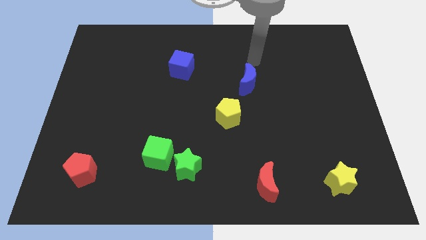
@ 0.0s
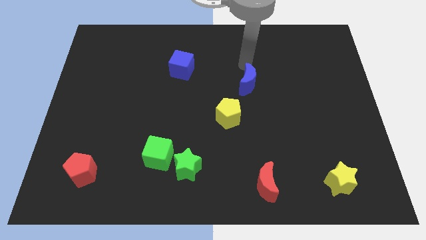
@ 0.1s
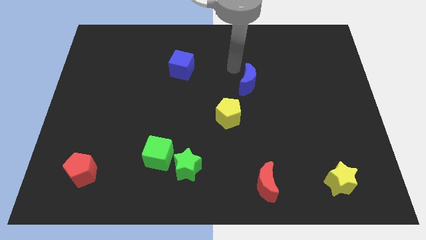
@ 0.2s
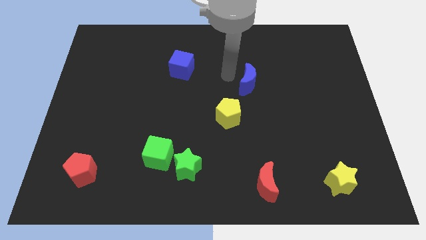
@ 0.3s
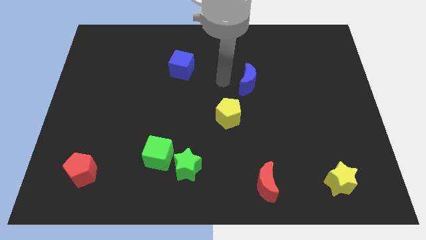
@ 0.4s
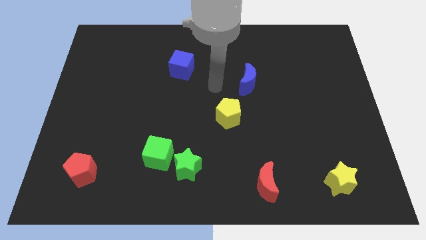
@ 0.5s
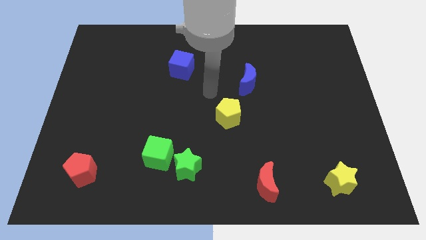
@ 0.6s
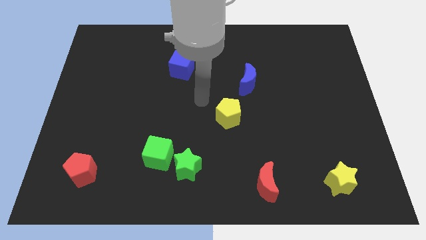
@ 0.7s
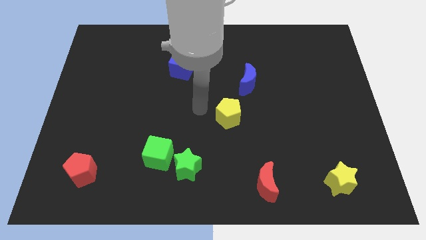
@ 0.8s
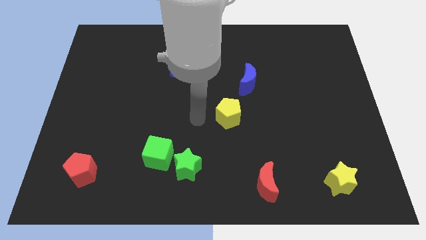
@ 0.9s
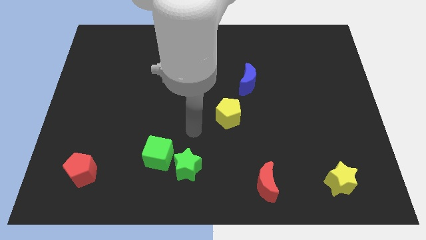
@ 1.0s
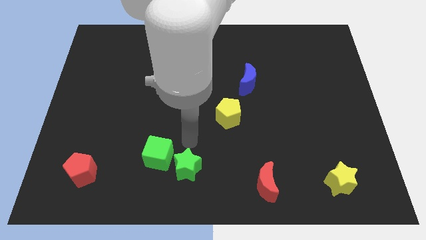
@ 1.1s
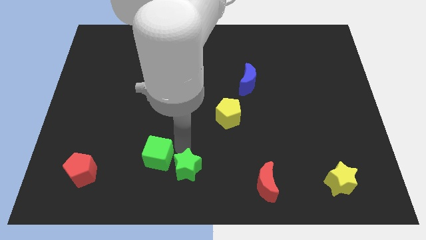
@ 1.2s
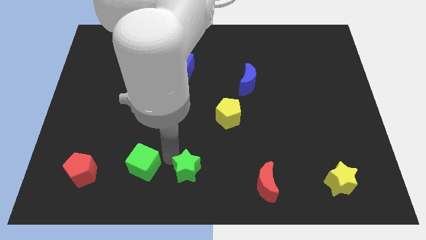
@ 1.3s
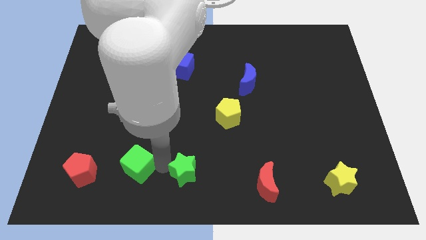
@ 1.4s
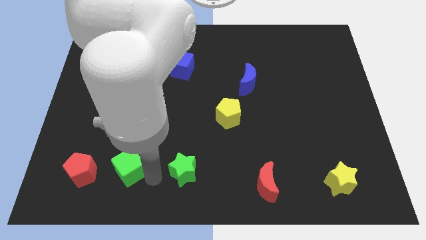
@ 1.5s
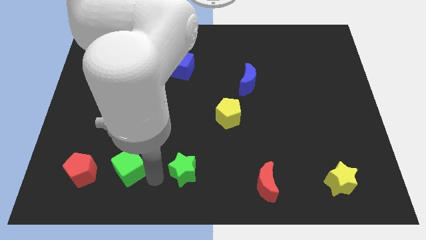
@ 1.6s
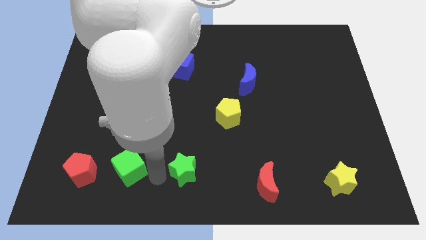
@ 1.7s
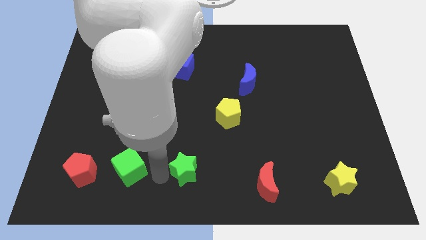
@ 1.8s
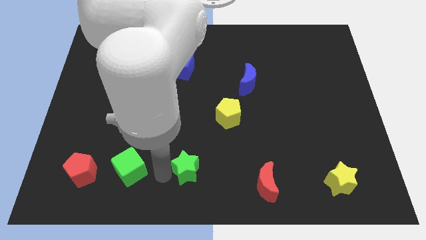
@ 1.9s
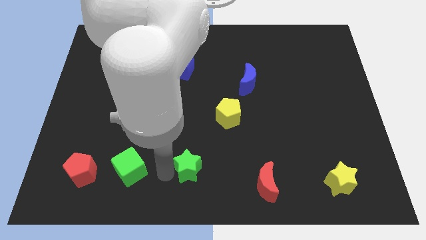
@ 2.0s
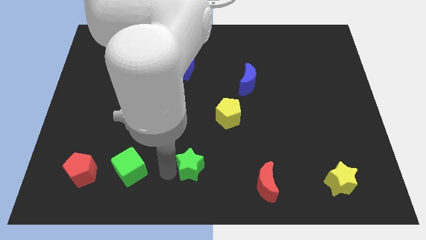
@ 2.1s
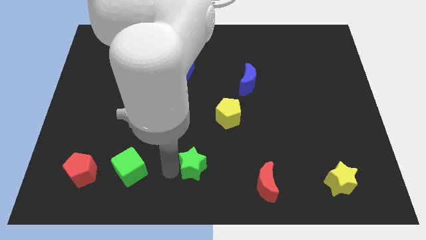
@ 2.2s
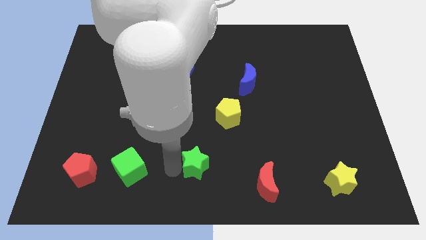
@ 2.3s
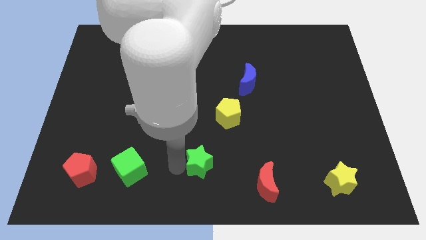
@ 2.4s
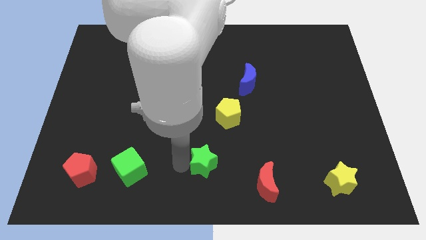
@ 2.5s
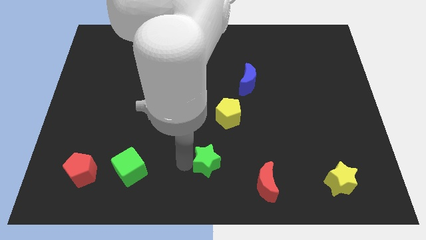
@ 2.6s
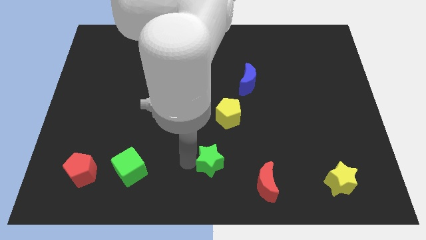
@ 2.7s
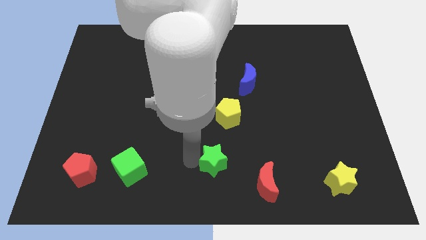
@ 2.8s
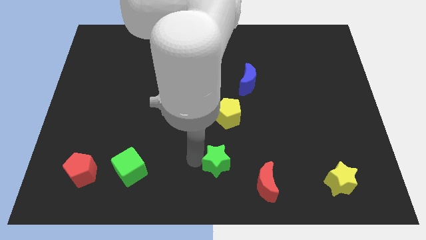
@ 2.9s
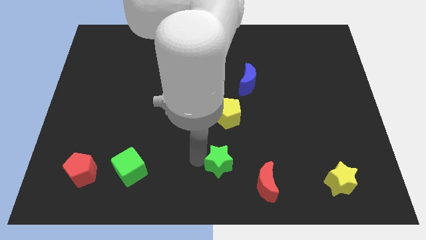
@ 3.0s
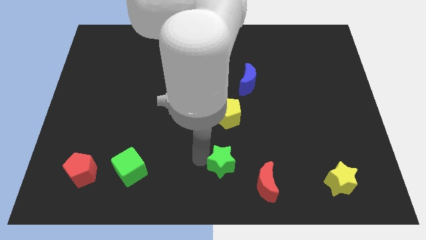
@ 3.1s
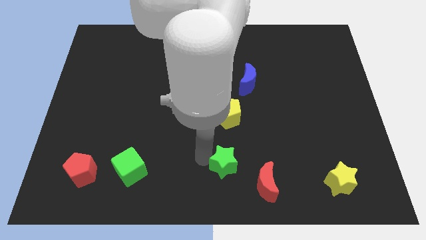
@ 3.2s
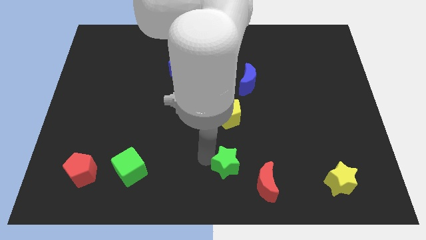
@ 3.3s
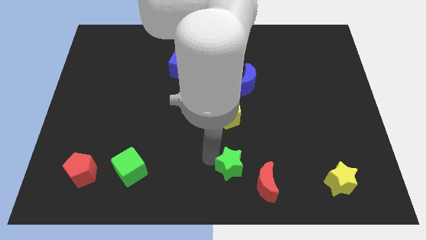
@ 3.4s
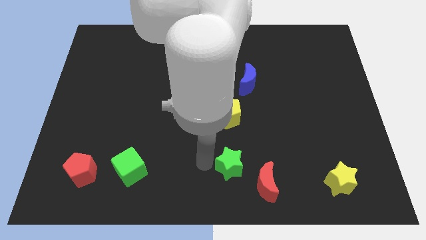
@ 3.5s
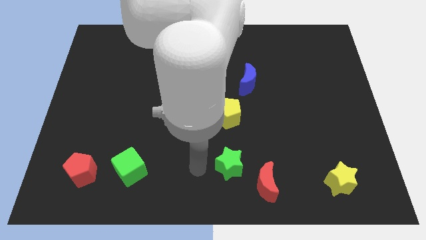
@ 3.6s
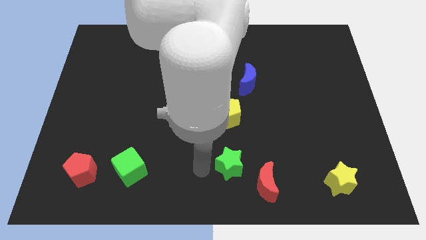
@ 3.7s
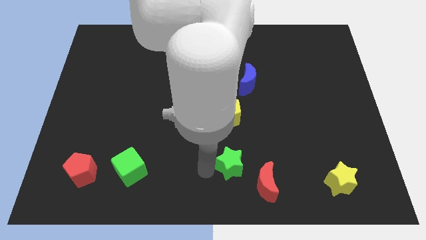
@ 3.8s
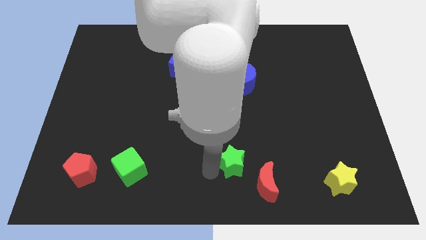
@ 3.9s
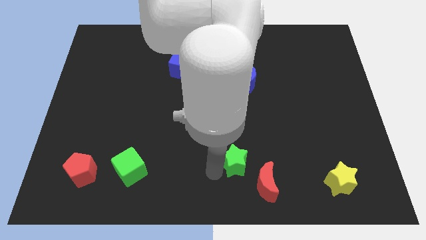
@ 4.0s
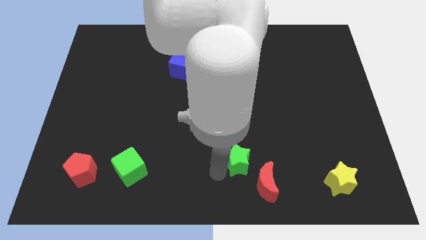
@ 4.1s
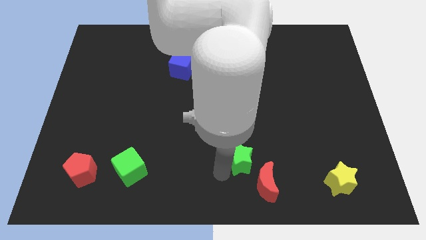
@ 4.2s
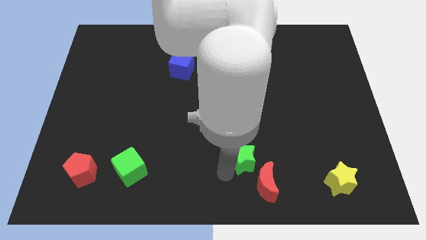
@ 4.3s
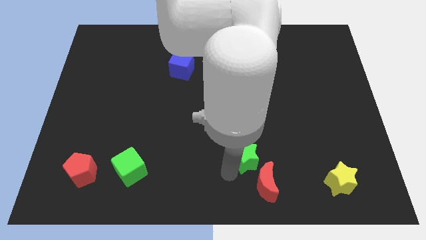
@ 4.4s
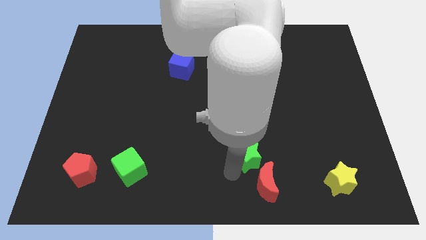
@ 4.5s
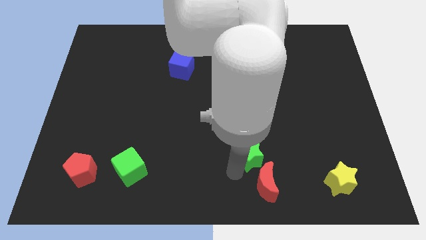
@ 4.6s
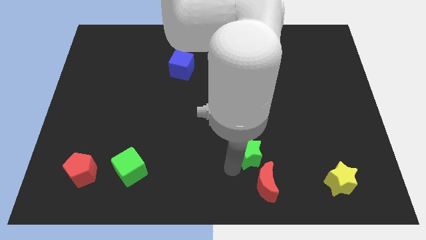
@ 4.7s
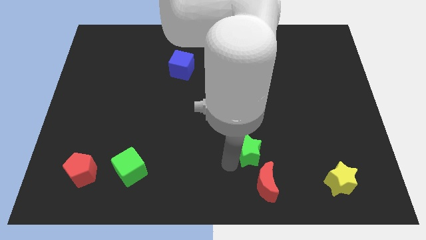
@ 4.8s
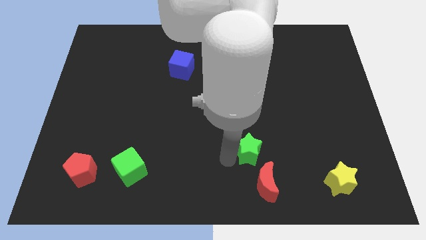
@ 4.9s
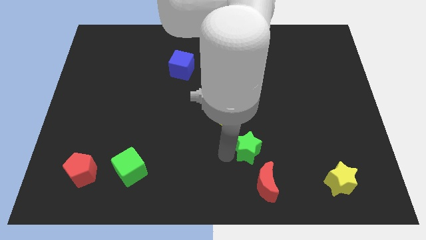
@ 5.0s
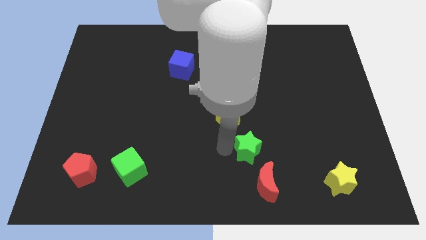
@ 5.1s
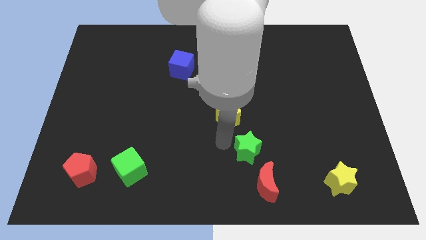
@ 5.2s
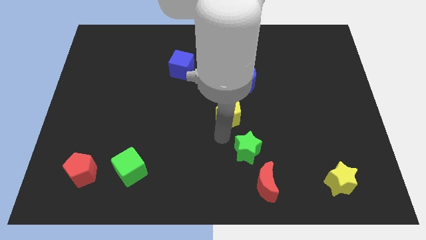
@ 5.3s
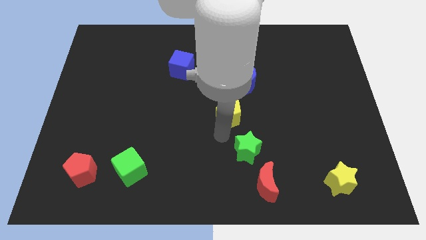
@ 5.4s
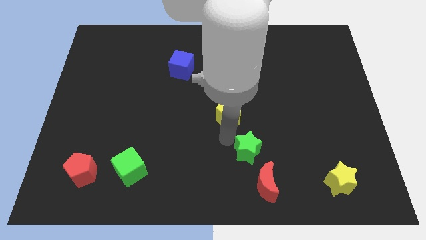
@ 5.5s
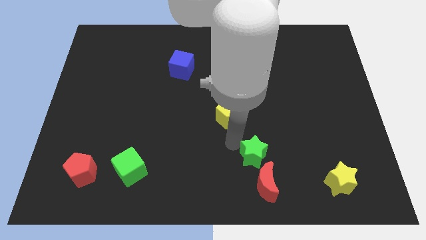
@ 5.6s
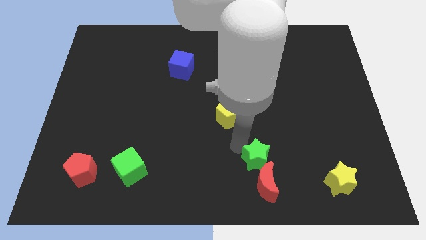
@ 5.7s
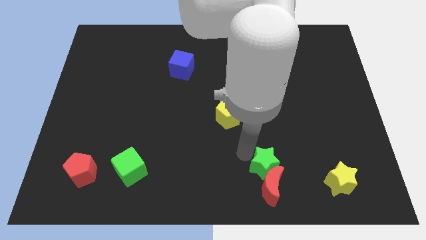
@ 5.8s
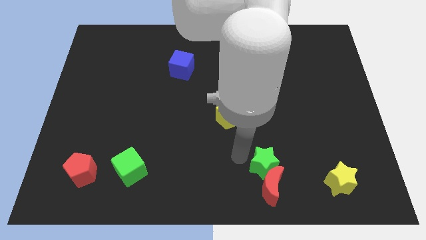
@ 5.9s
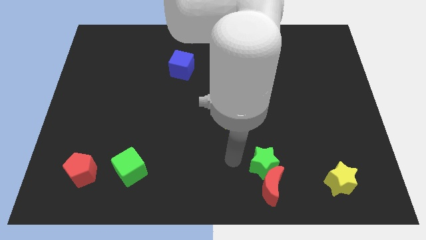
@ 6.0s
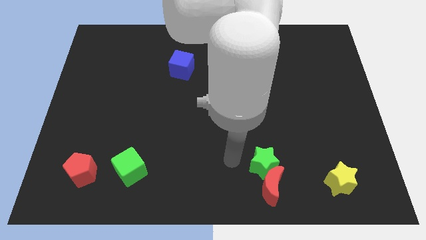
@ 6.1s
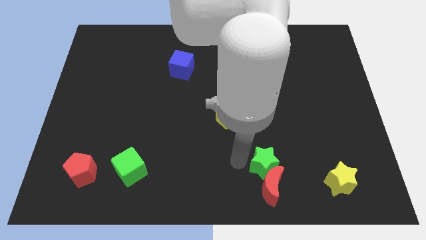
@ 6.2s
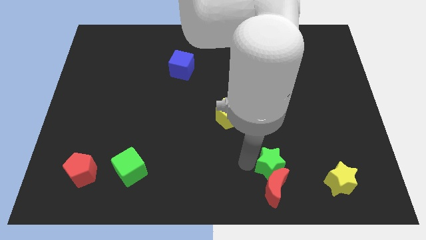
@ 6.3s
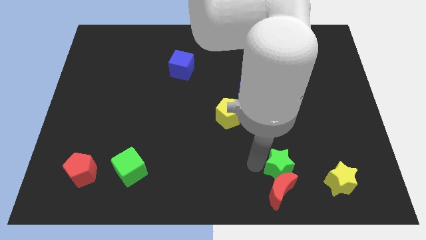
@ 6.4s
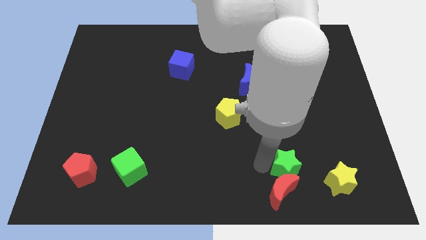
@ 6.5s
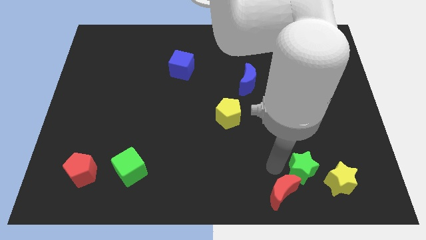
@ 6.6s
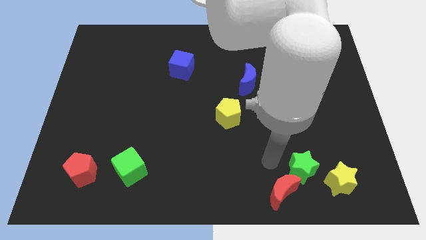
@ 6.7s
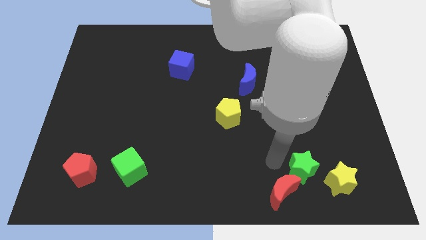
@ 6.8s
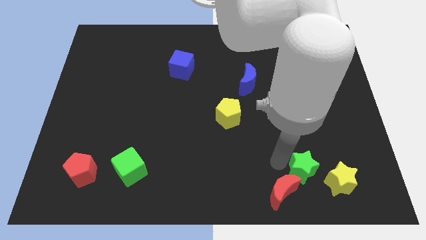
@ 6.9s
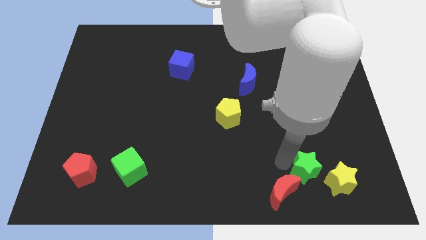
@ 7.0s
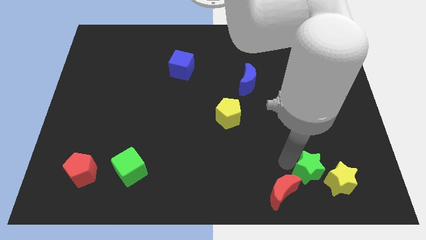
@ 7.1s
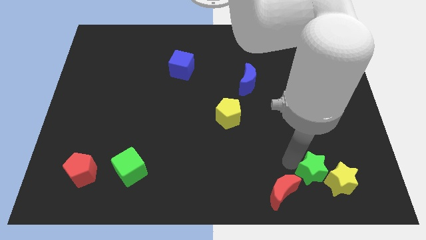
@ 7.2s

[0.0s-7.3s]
put the green star to the yellow star
